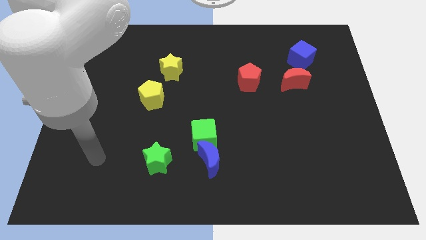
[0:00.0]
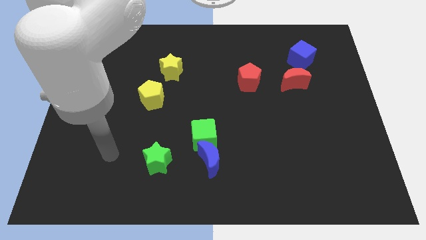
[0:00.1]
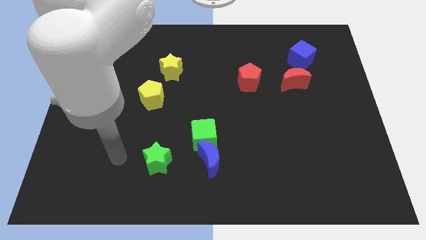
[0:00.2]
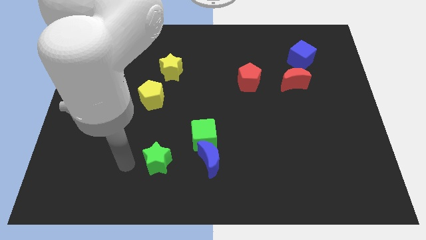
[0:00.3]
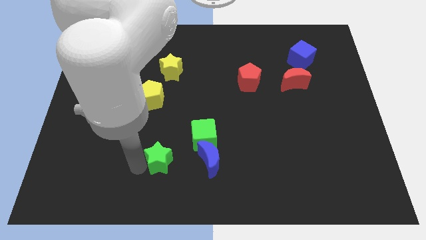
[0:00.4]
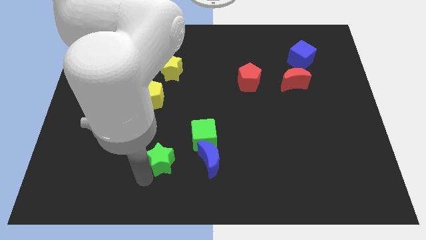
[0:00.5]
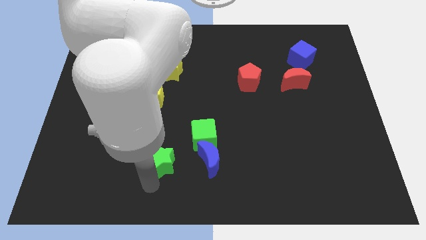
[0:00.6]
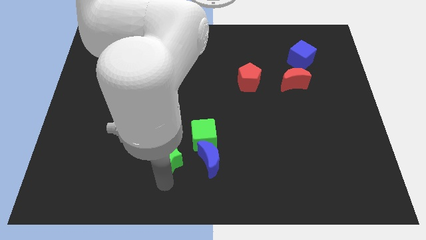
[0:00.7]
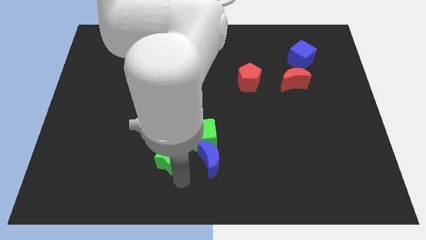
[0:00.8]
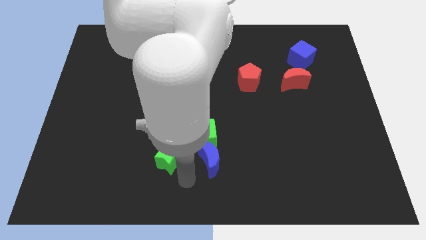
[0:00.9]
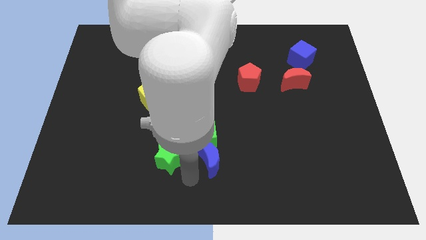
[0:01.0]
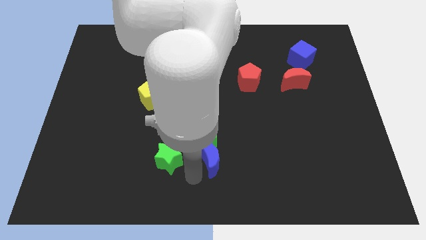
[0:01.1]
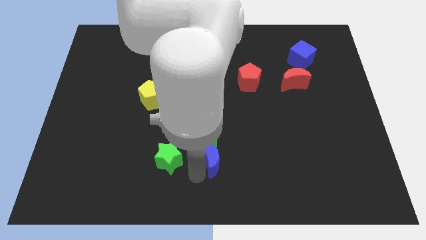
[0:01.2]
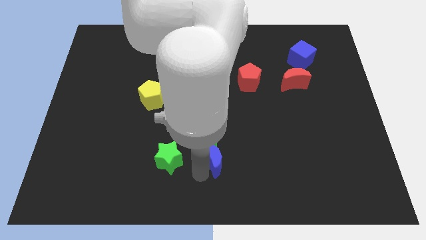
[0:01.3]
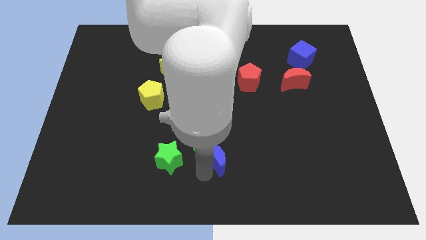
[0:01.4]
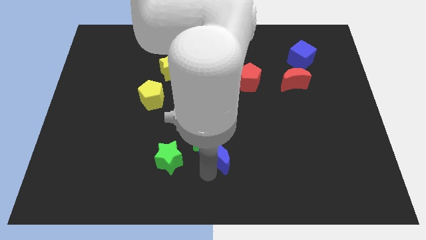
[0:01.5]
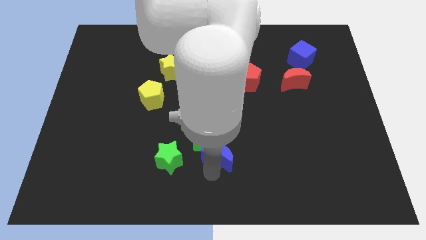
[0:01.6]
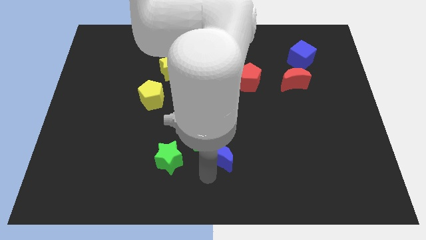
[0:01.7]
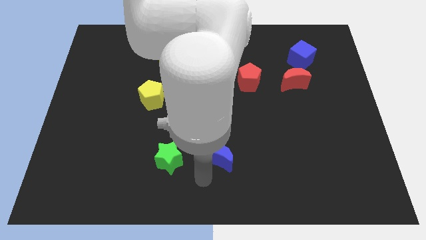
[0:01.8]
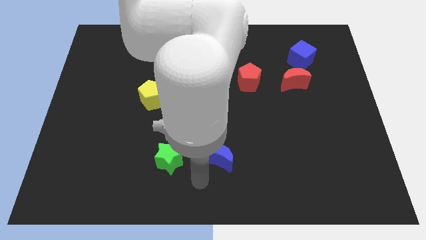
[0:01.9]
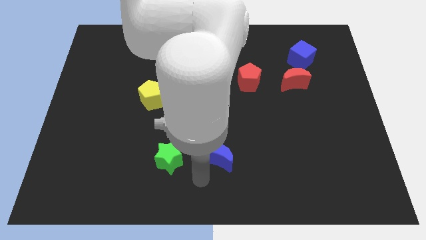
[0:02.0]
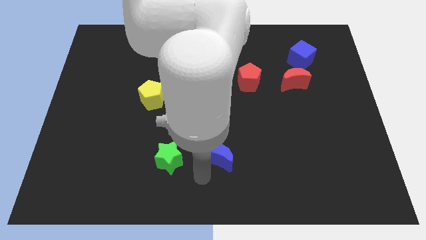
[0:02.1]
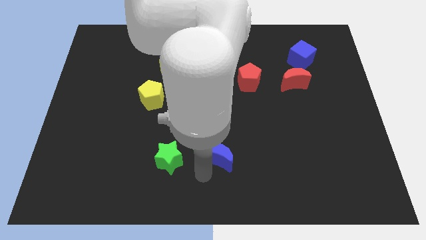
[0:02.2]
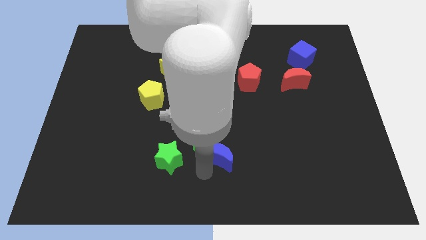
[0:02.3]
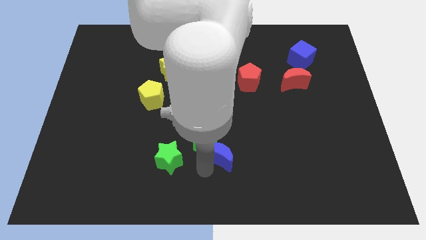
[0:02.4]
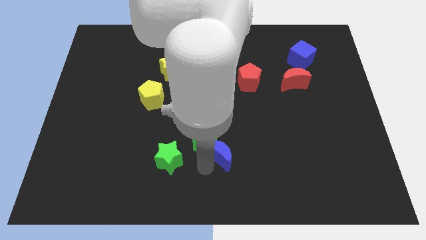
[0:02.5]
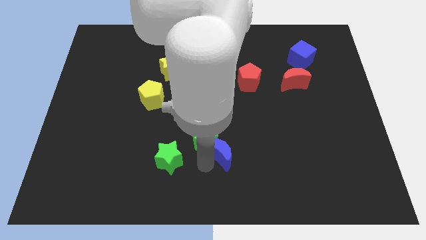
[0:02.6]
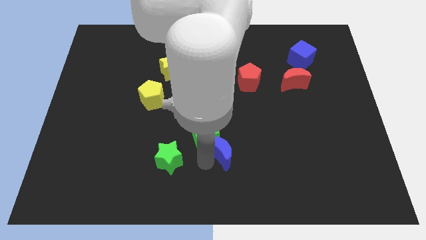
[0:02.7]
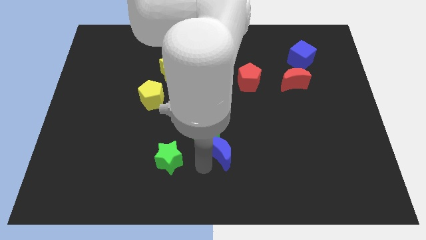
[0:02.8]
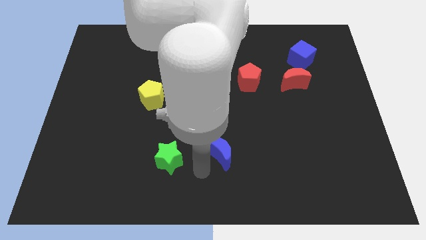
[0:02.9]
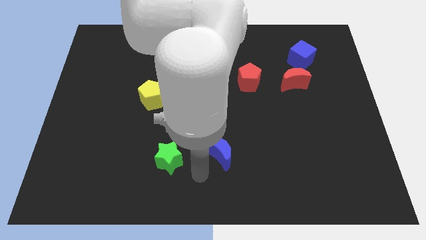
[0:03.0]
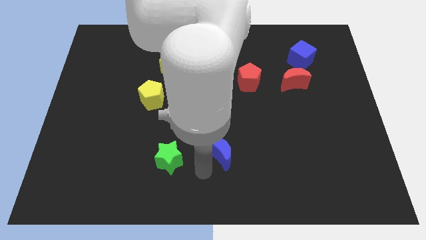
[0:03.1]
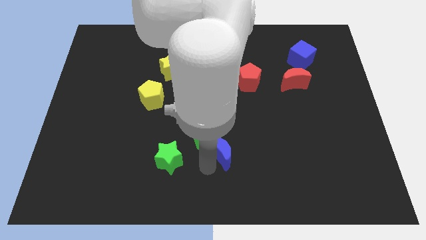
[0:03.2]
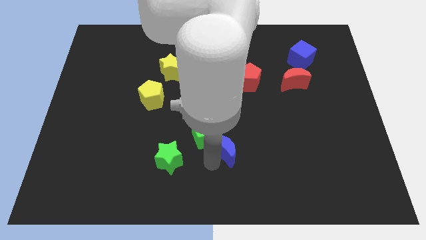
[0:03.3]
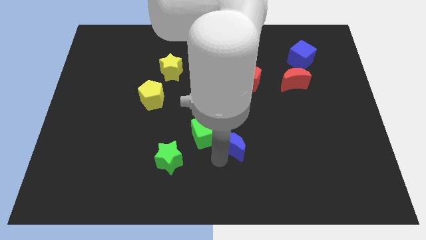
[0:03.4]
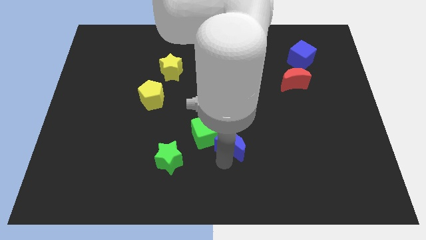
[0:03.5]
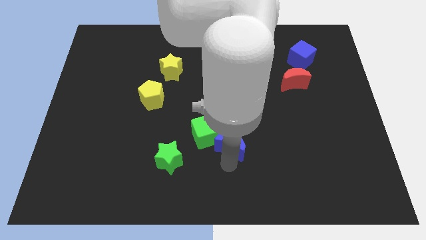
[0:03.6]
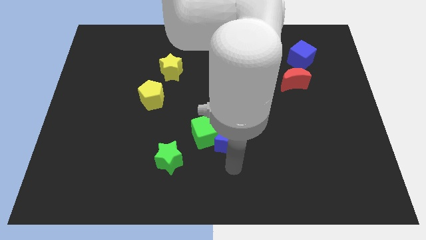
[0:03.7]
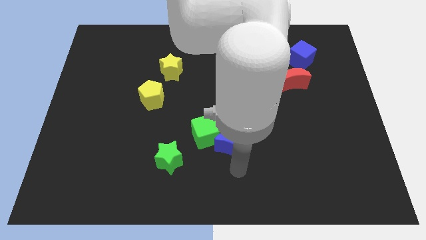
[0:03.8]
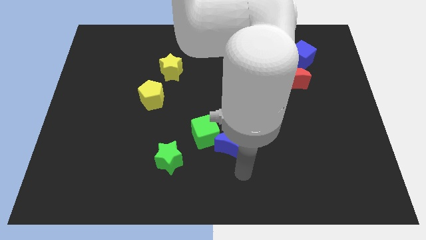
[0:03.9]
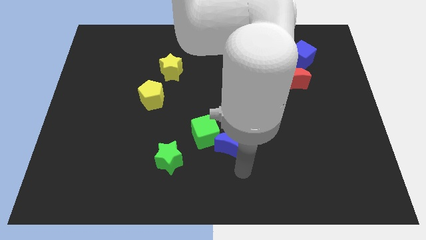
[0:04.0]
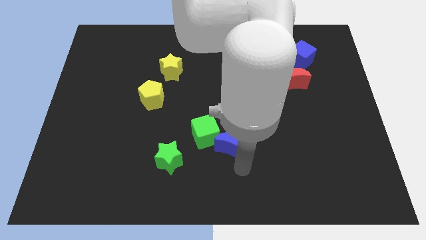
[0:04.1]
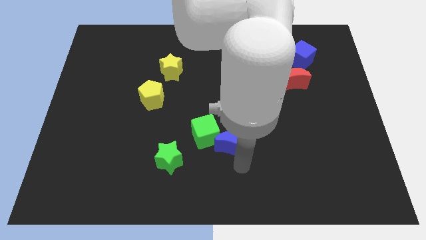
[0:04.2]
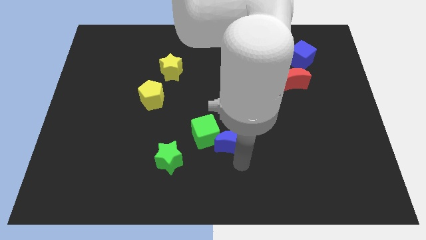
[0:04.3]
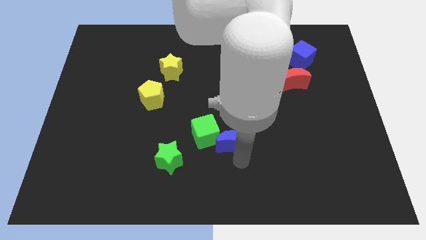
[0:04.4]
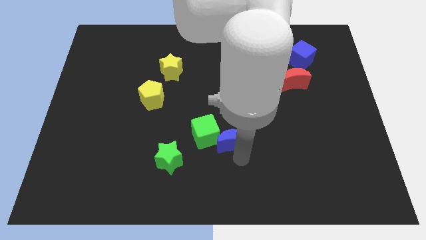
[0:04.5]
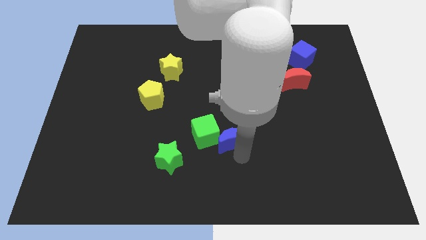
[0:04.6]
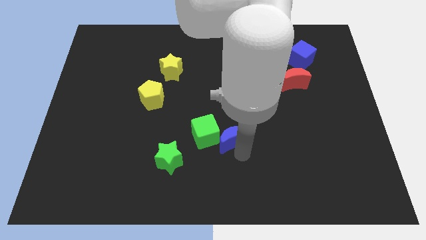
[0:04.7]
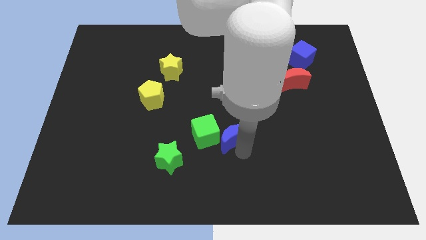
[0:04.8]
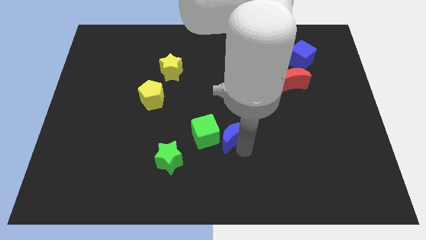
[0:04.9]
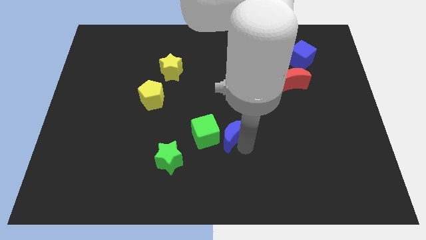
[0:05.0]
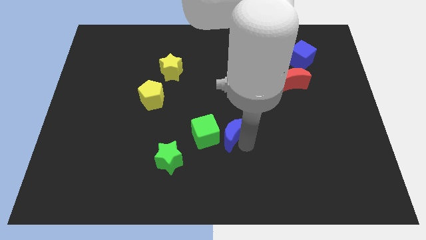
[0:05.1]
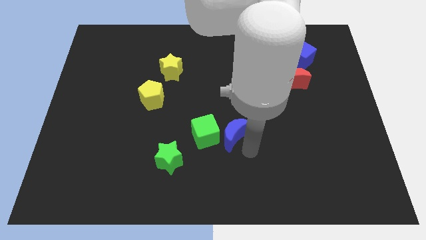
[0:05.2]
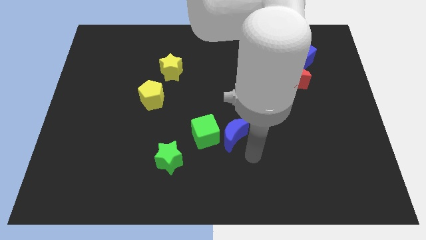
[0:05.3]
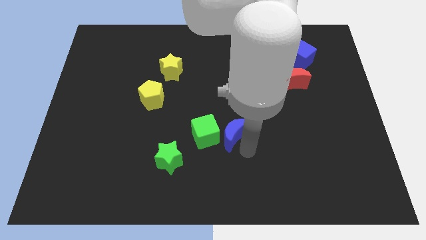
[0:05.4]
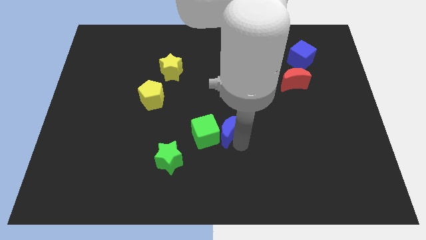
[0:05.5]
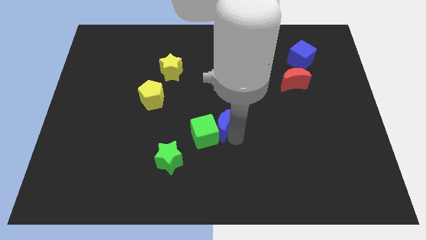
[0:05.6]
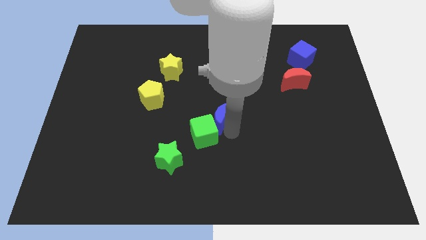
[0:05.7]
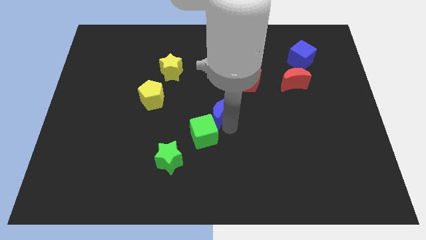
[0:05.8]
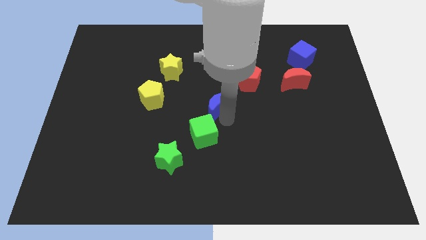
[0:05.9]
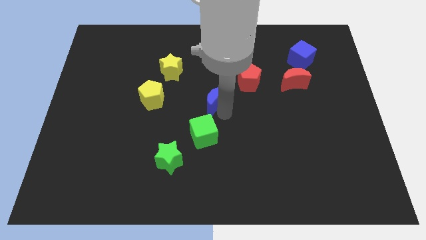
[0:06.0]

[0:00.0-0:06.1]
put the blue moon to the right of the yellow pentagon

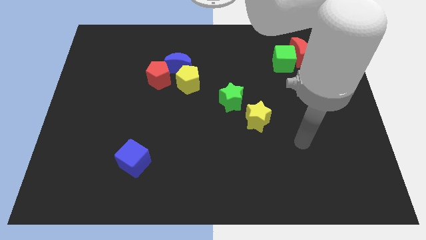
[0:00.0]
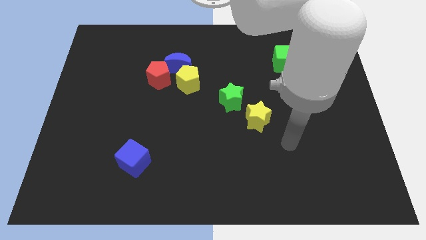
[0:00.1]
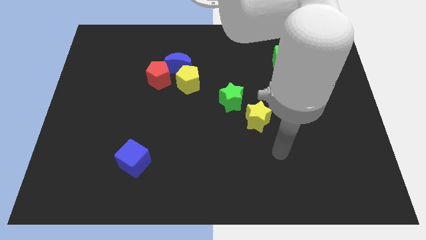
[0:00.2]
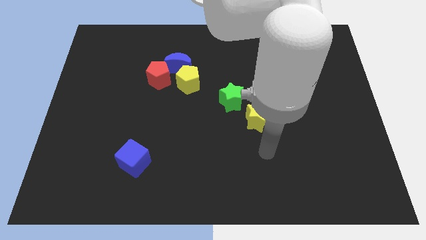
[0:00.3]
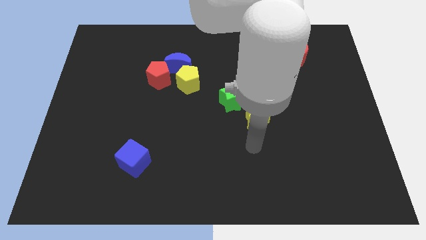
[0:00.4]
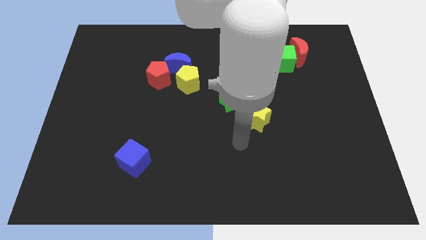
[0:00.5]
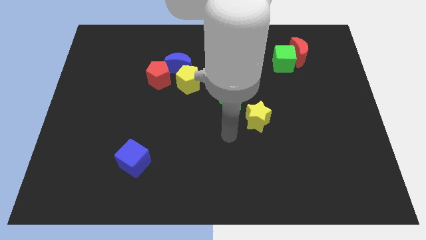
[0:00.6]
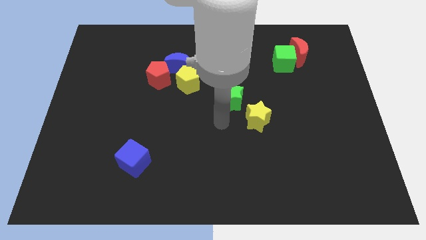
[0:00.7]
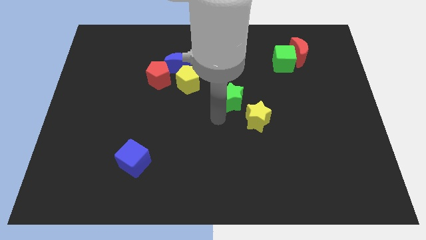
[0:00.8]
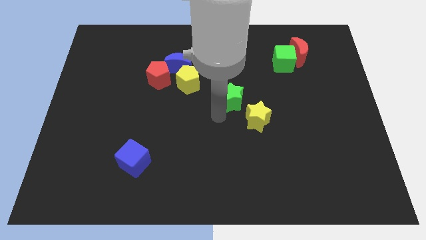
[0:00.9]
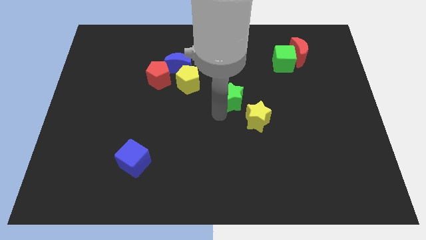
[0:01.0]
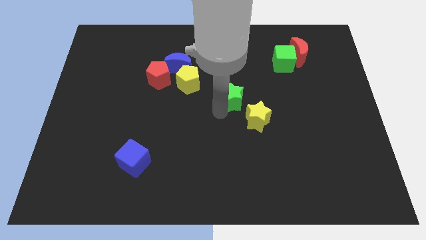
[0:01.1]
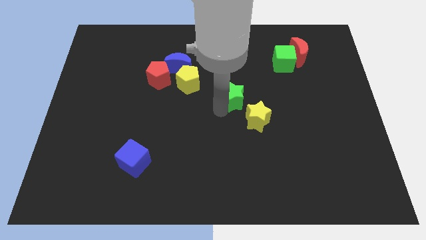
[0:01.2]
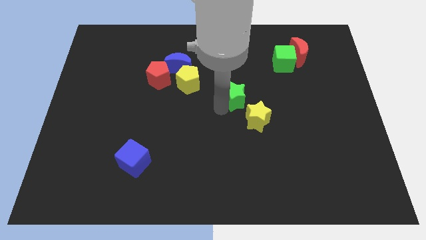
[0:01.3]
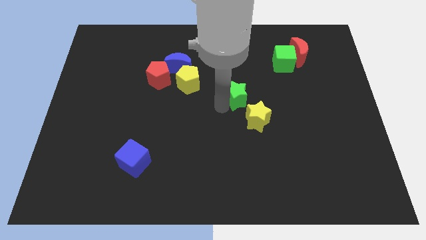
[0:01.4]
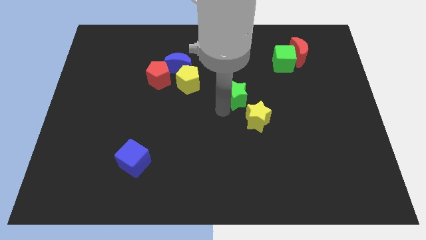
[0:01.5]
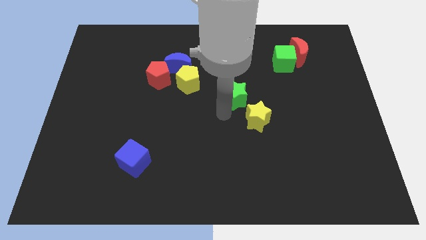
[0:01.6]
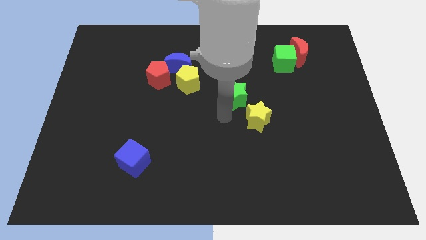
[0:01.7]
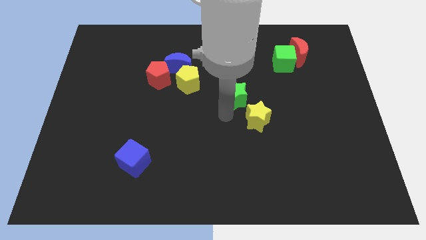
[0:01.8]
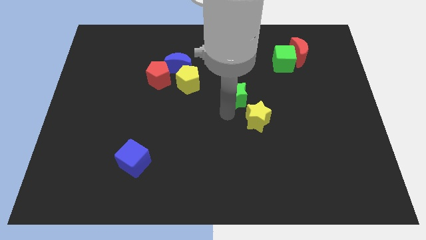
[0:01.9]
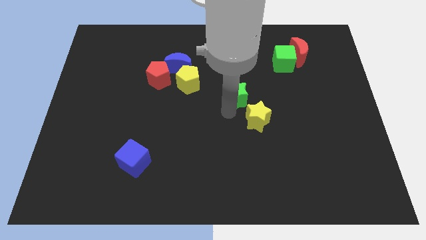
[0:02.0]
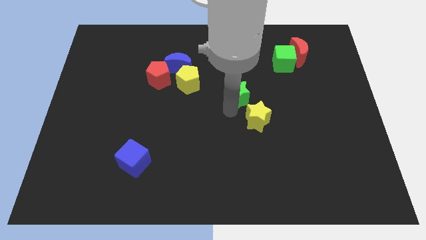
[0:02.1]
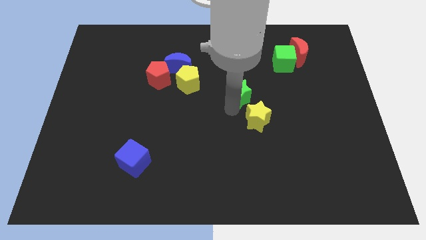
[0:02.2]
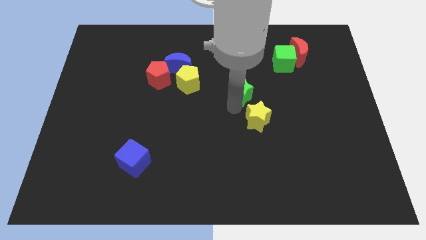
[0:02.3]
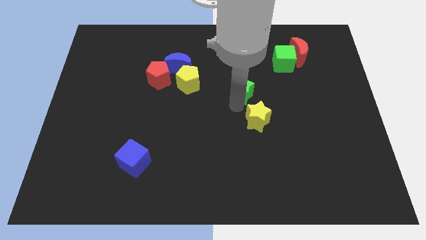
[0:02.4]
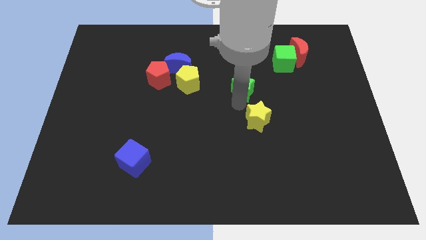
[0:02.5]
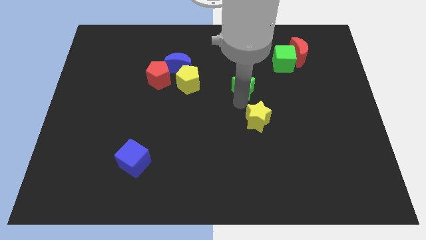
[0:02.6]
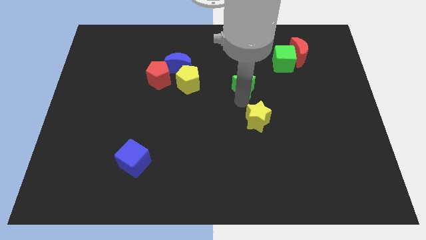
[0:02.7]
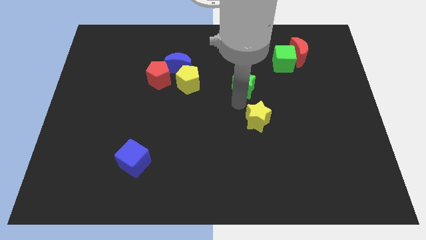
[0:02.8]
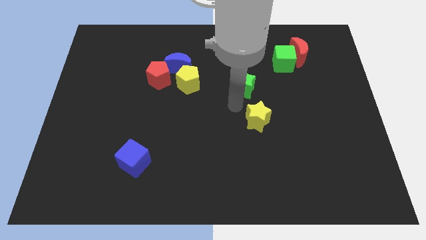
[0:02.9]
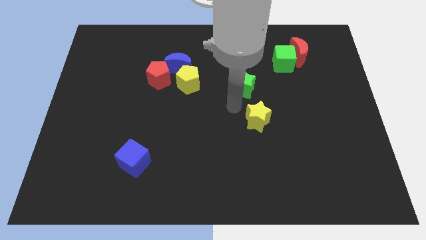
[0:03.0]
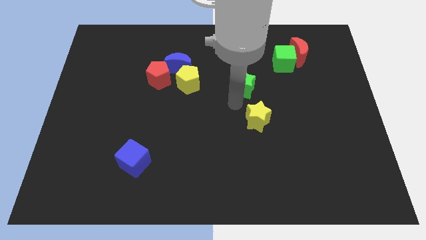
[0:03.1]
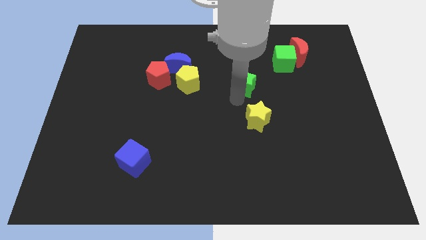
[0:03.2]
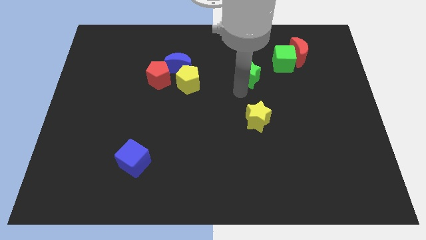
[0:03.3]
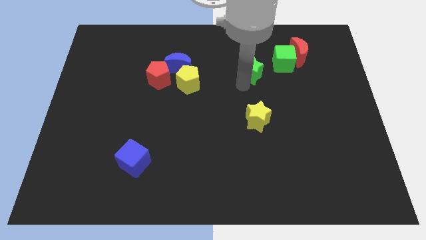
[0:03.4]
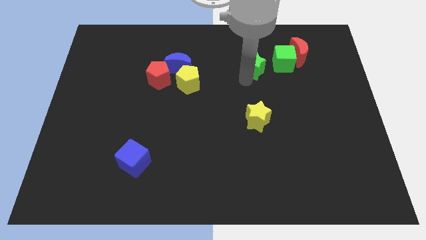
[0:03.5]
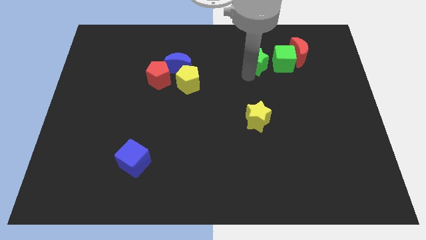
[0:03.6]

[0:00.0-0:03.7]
slide the green star just left of the red moon
